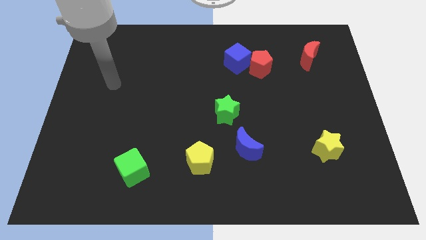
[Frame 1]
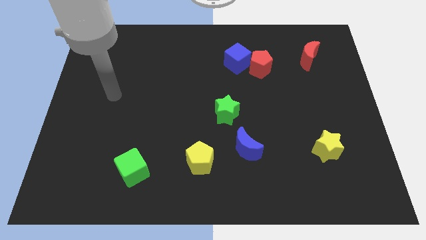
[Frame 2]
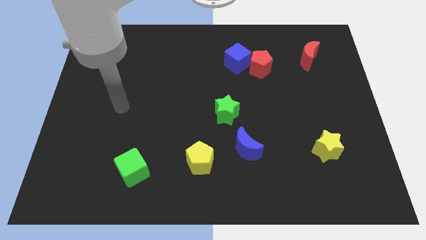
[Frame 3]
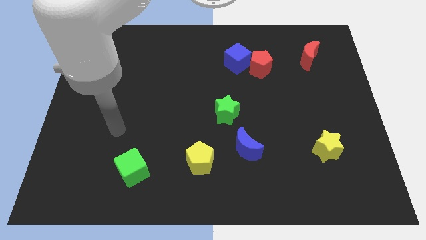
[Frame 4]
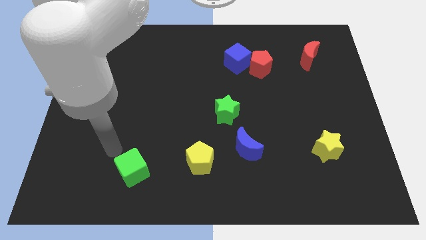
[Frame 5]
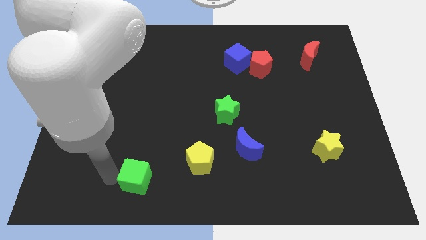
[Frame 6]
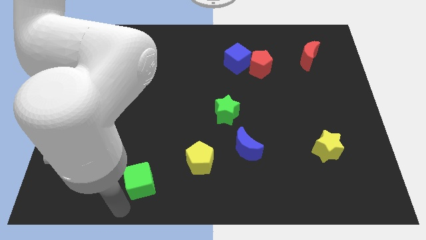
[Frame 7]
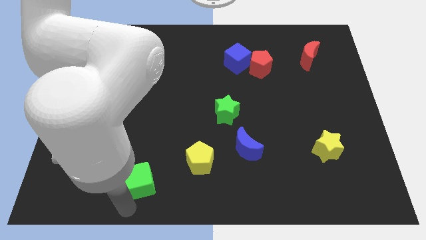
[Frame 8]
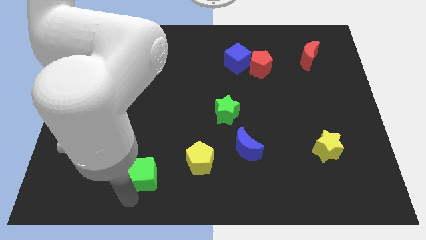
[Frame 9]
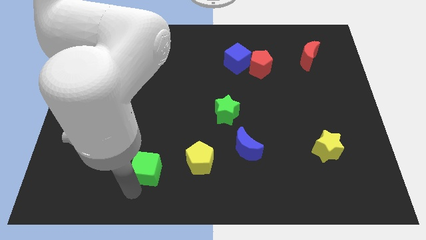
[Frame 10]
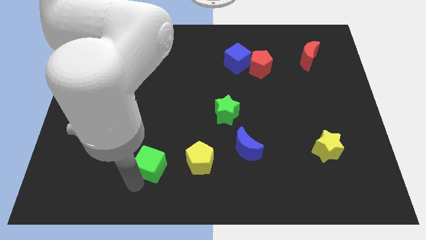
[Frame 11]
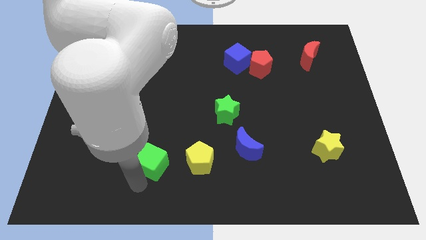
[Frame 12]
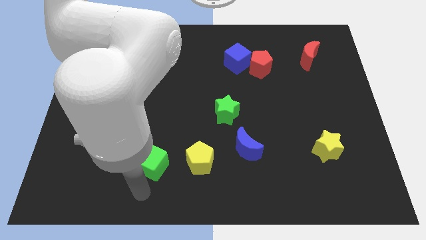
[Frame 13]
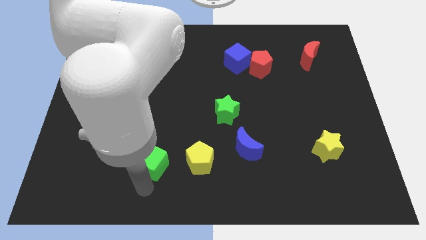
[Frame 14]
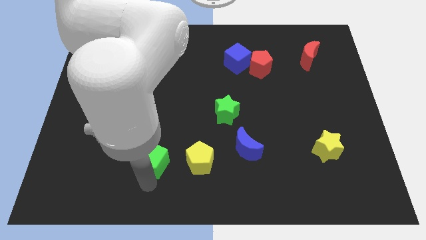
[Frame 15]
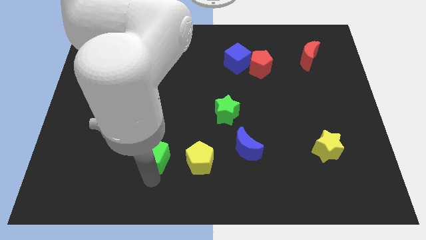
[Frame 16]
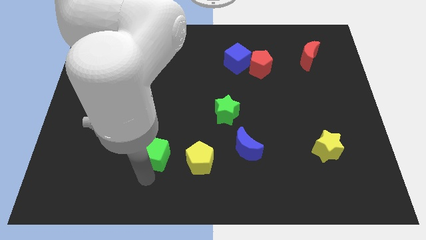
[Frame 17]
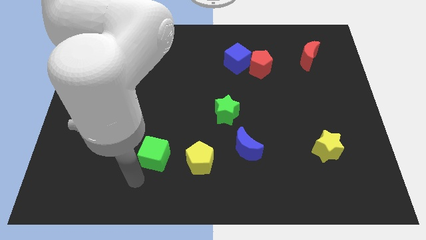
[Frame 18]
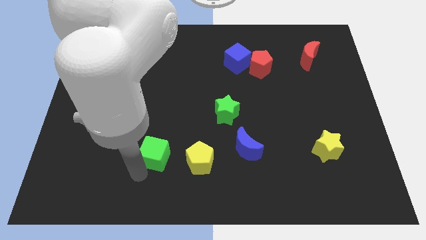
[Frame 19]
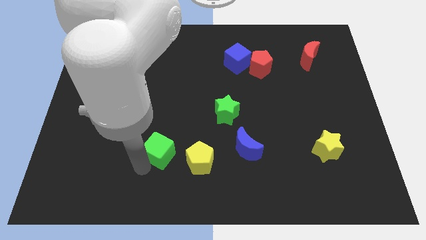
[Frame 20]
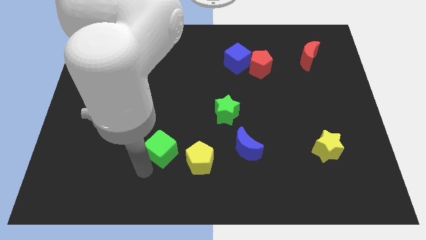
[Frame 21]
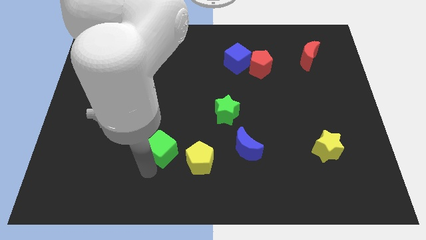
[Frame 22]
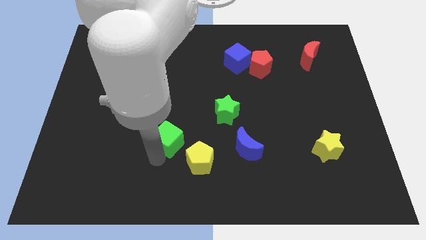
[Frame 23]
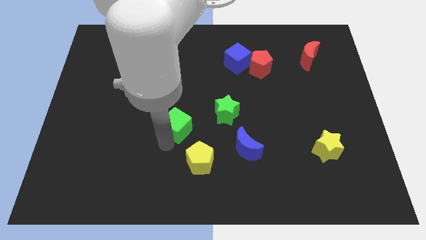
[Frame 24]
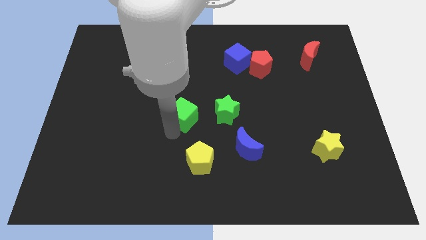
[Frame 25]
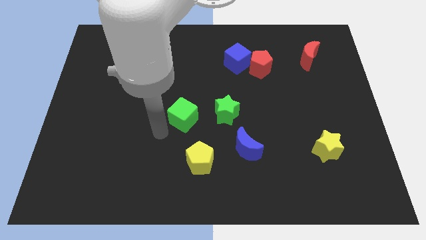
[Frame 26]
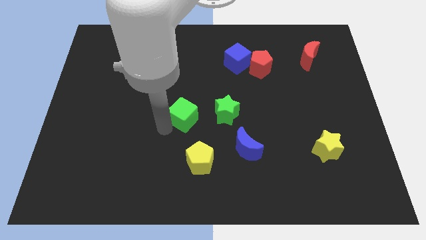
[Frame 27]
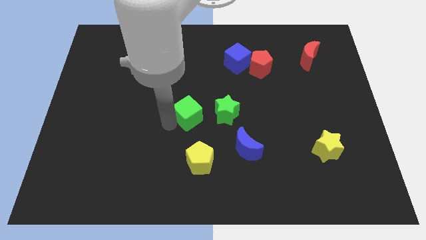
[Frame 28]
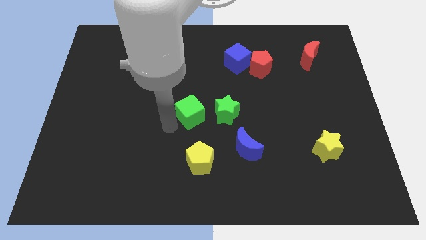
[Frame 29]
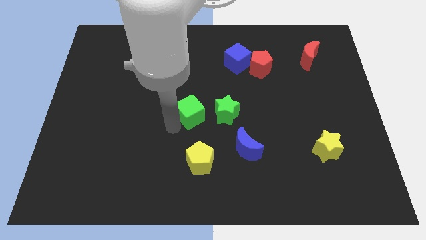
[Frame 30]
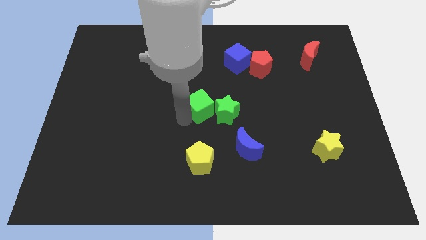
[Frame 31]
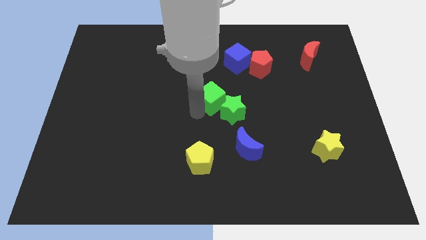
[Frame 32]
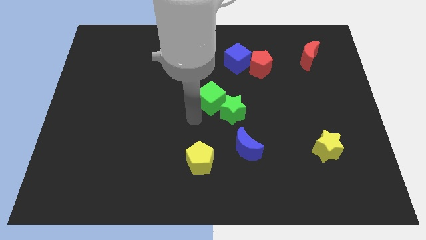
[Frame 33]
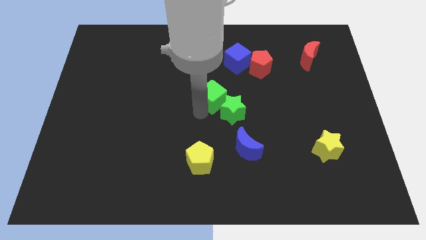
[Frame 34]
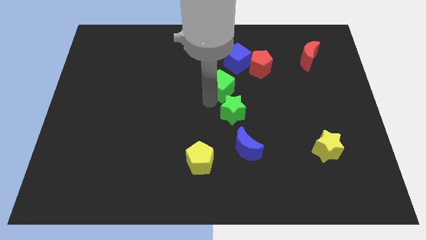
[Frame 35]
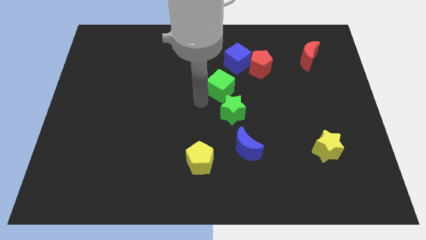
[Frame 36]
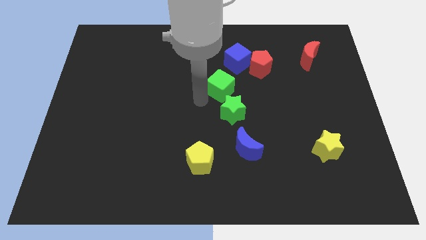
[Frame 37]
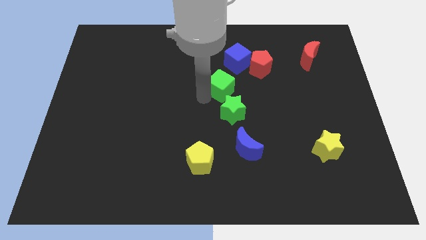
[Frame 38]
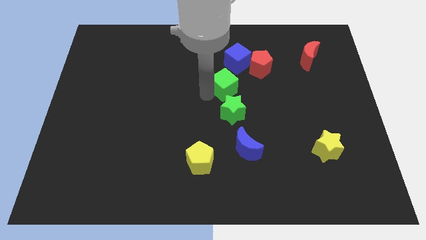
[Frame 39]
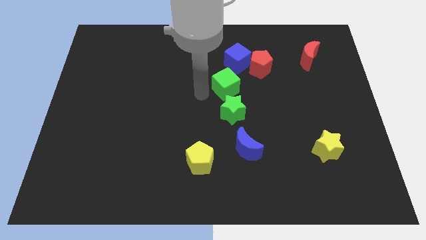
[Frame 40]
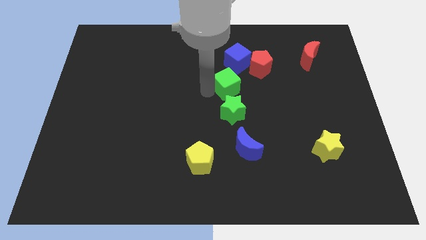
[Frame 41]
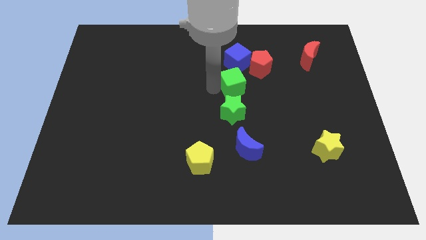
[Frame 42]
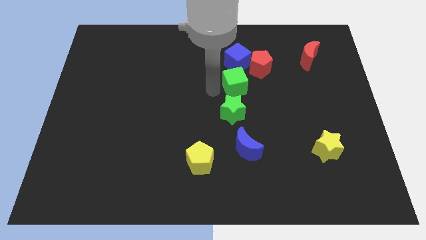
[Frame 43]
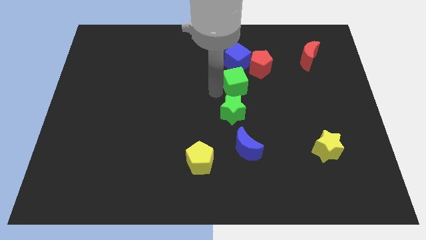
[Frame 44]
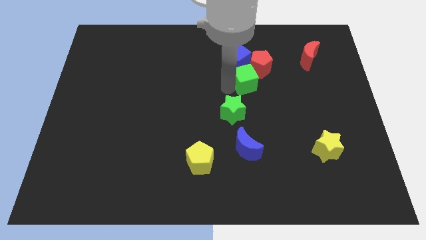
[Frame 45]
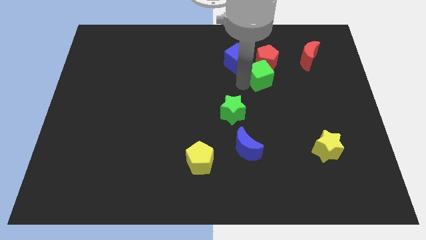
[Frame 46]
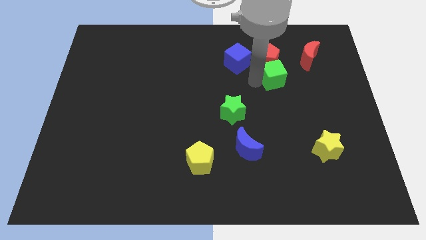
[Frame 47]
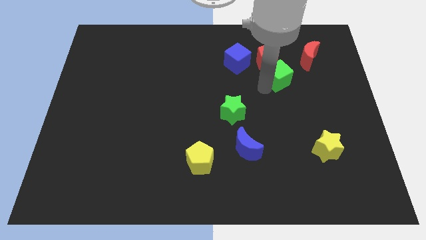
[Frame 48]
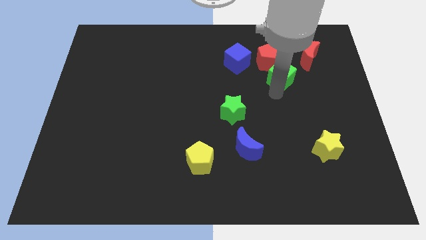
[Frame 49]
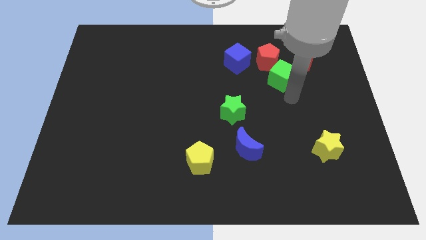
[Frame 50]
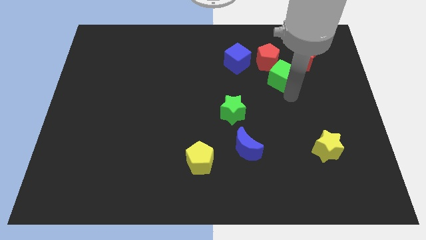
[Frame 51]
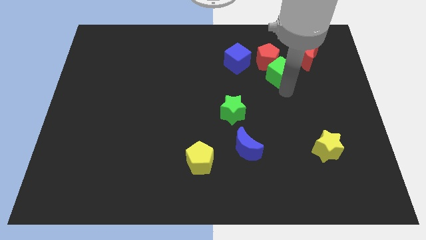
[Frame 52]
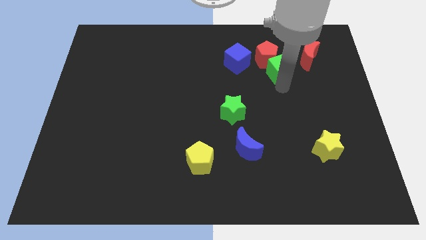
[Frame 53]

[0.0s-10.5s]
put the green cube to the left side of the red moon

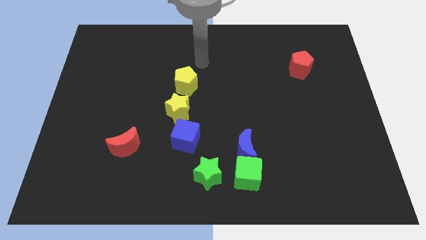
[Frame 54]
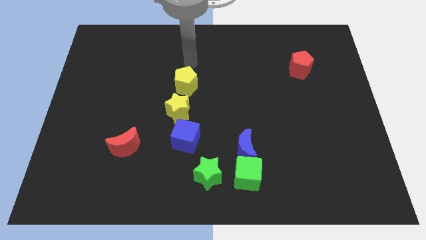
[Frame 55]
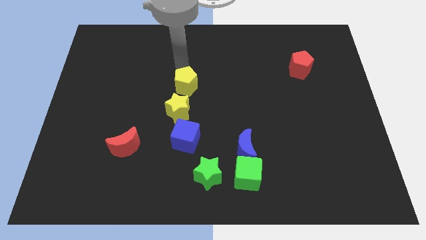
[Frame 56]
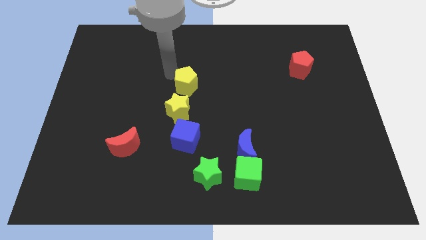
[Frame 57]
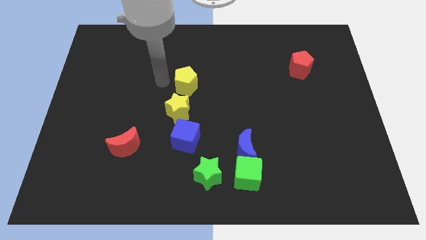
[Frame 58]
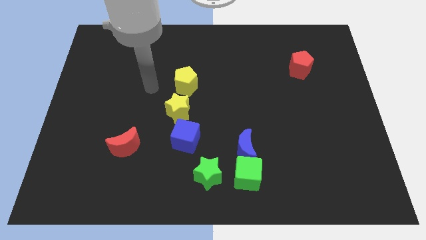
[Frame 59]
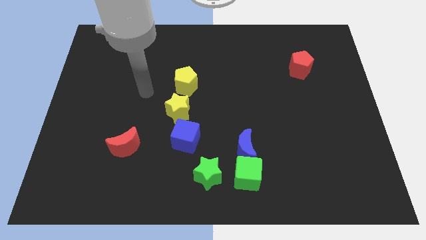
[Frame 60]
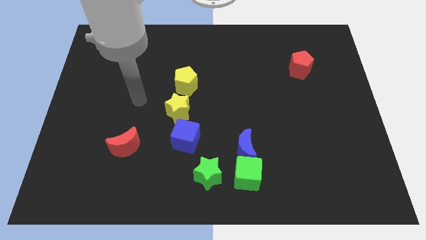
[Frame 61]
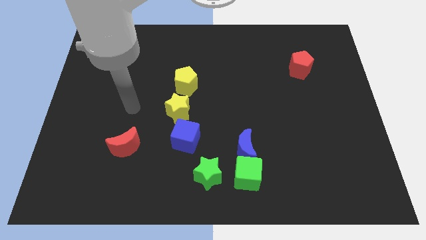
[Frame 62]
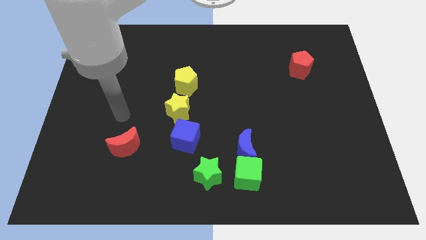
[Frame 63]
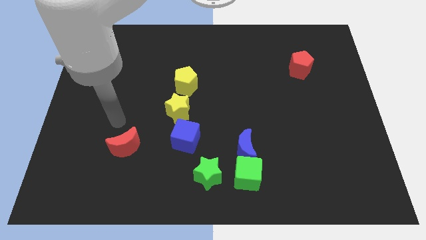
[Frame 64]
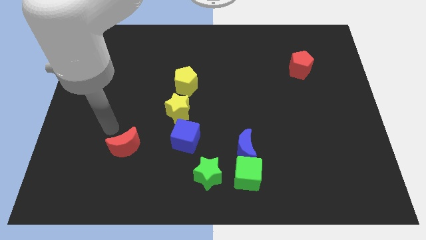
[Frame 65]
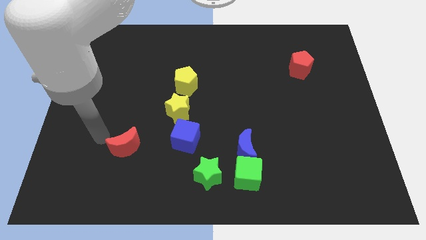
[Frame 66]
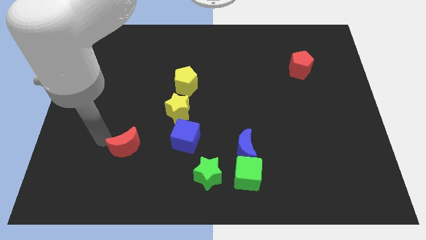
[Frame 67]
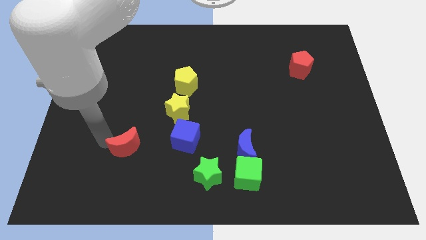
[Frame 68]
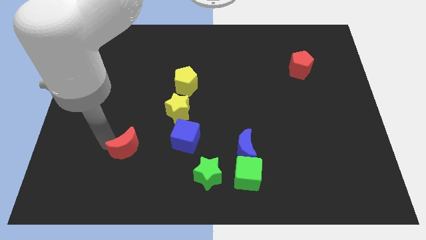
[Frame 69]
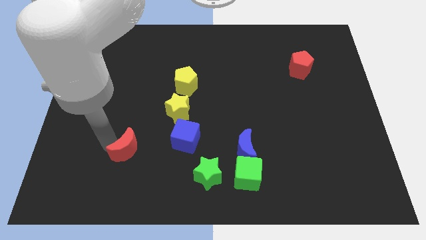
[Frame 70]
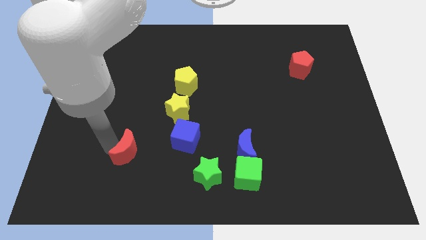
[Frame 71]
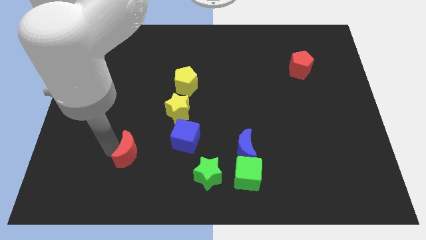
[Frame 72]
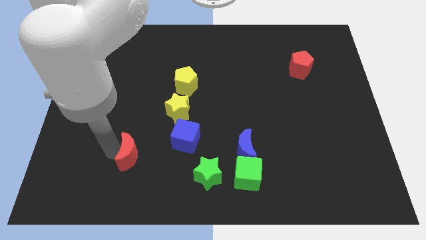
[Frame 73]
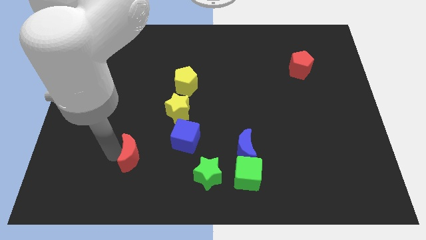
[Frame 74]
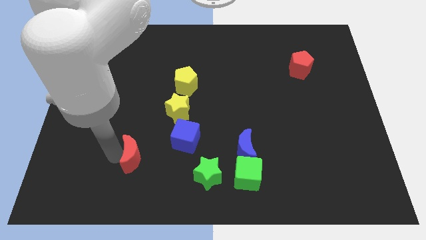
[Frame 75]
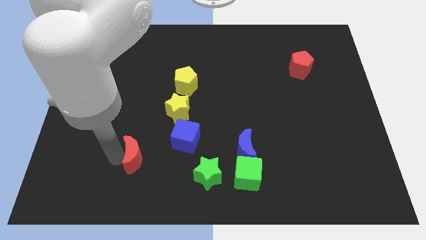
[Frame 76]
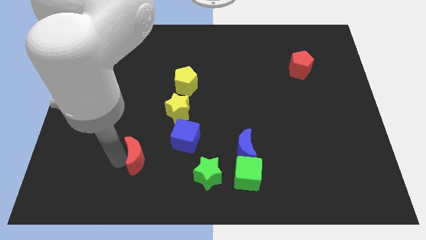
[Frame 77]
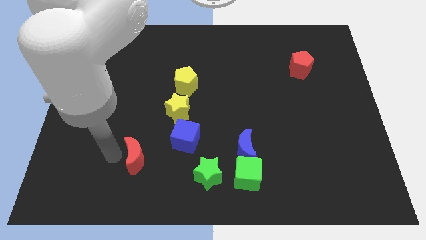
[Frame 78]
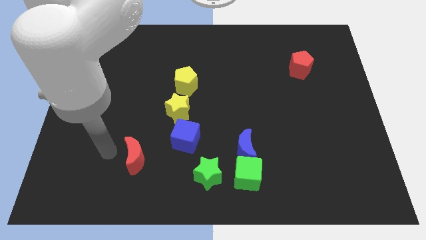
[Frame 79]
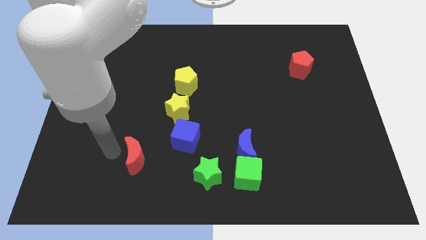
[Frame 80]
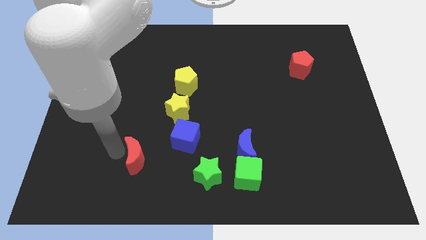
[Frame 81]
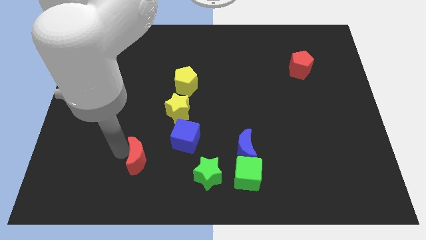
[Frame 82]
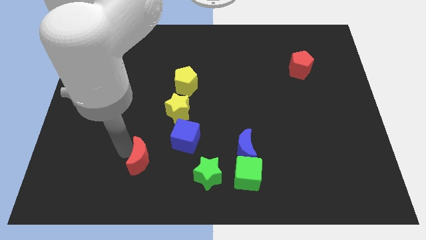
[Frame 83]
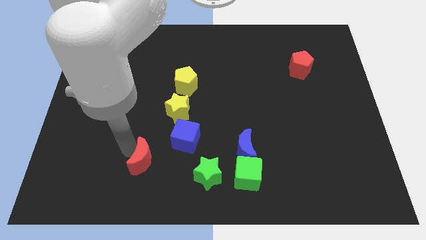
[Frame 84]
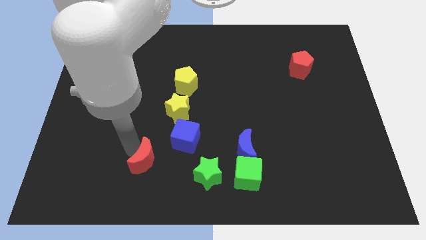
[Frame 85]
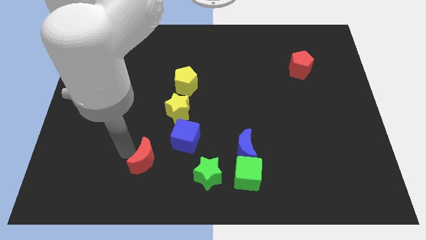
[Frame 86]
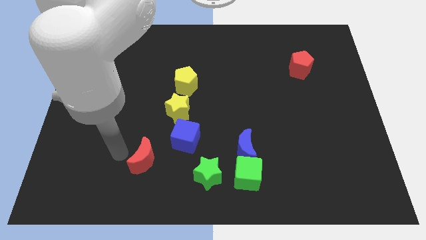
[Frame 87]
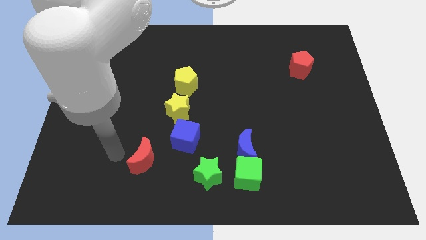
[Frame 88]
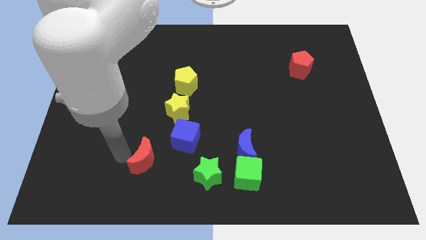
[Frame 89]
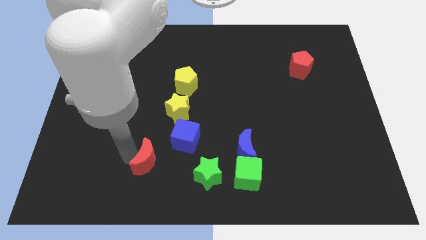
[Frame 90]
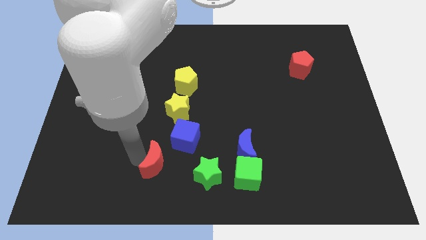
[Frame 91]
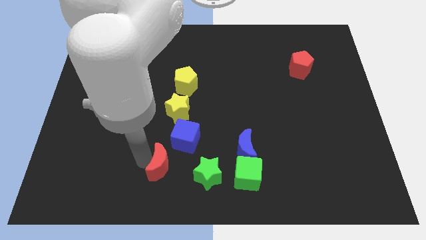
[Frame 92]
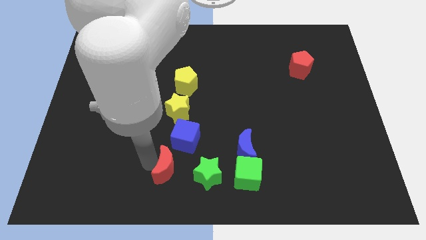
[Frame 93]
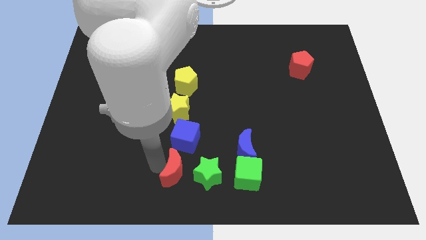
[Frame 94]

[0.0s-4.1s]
put the red moon to the left side of the green cube
